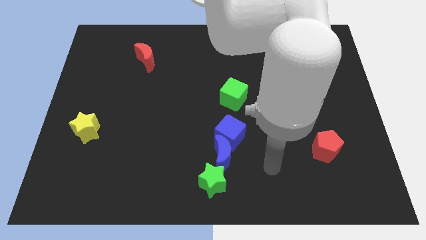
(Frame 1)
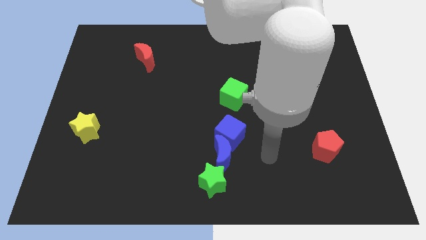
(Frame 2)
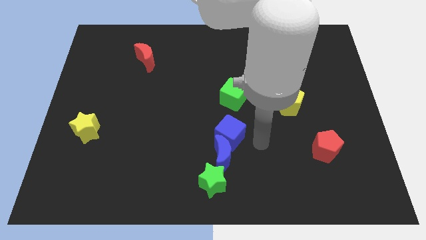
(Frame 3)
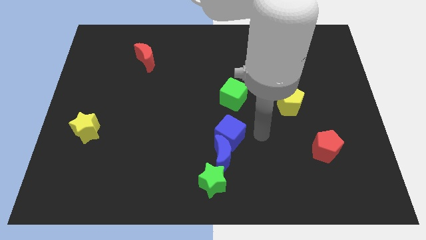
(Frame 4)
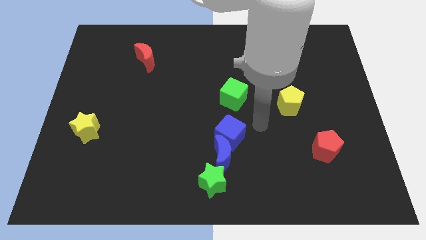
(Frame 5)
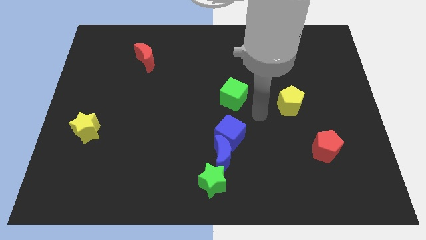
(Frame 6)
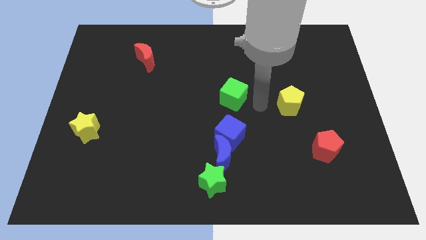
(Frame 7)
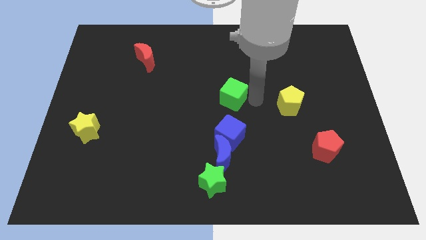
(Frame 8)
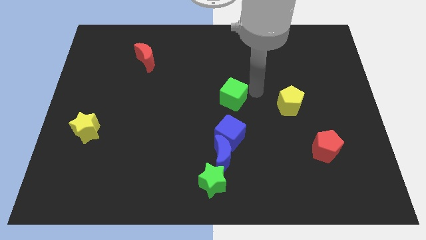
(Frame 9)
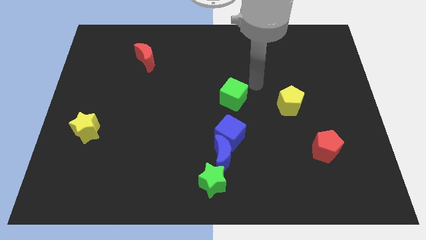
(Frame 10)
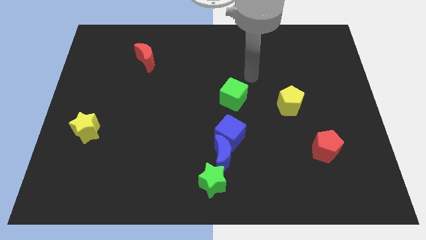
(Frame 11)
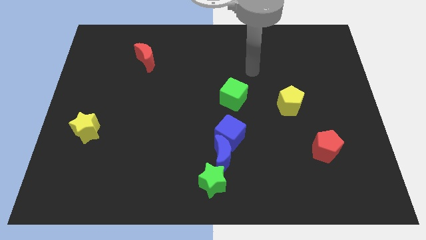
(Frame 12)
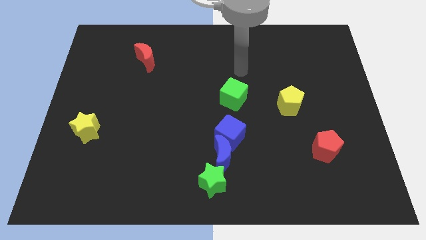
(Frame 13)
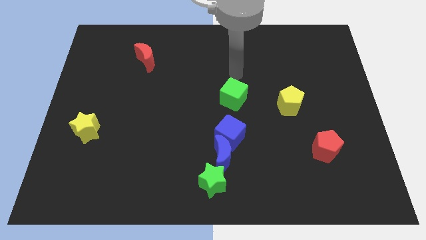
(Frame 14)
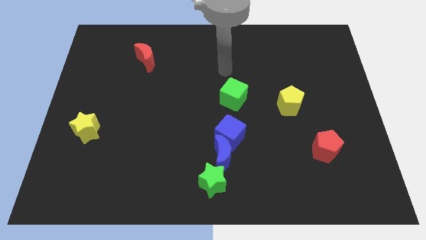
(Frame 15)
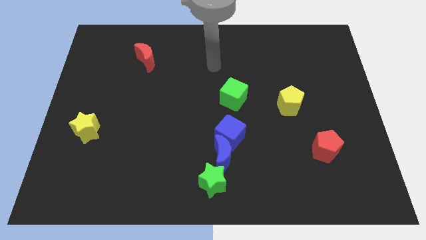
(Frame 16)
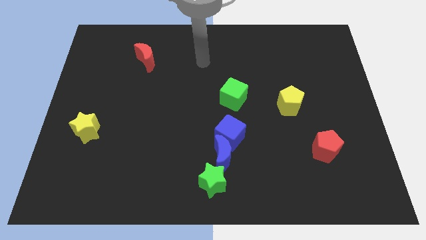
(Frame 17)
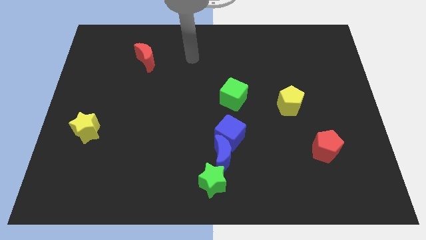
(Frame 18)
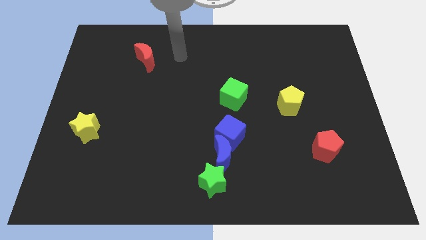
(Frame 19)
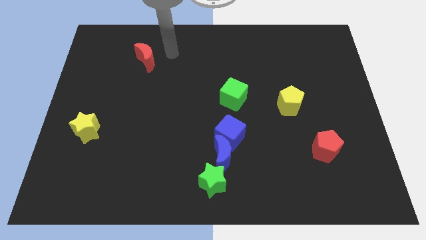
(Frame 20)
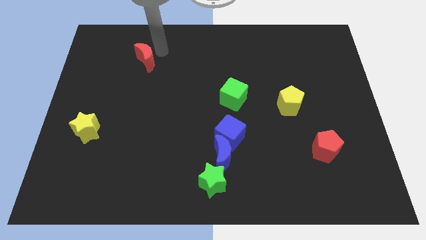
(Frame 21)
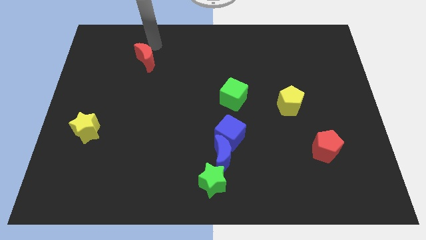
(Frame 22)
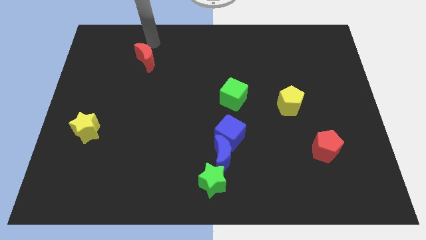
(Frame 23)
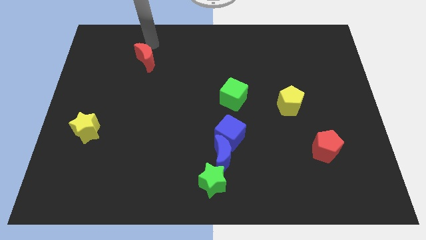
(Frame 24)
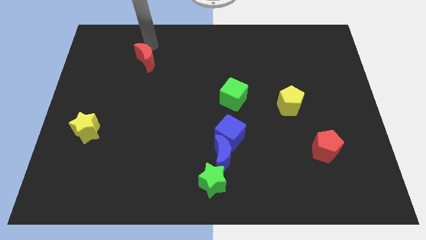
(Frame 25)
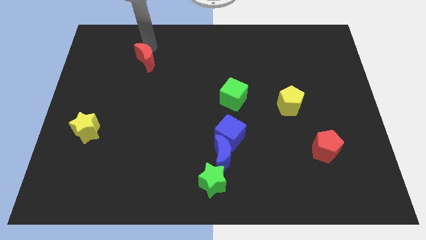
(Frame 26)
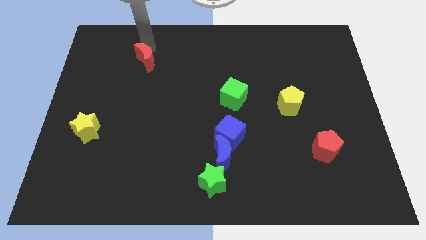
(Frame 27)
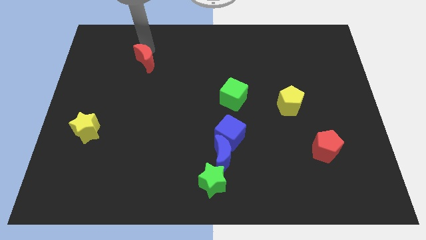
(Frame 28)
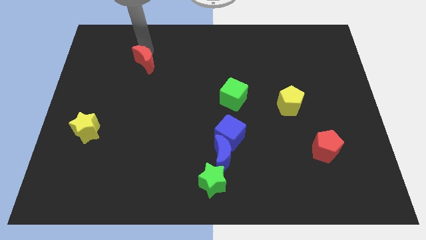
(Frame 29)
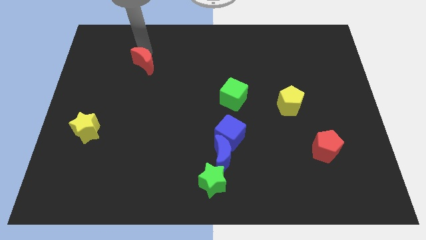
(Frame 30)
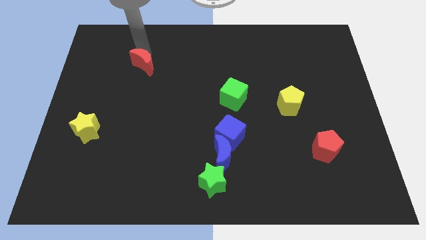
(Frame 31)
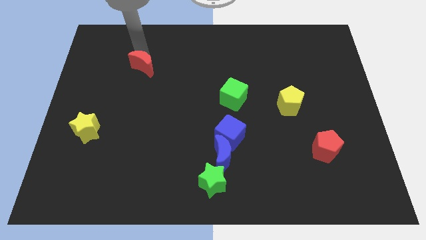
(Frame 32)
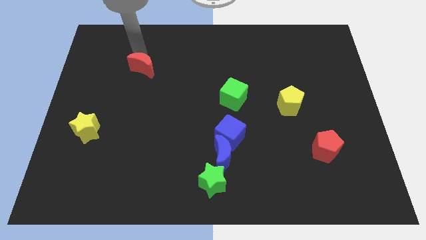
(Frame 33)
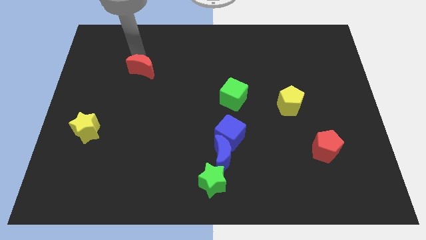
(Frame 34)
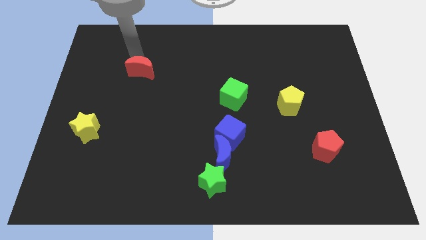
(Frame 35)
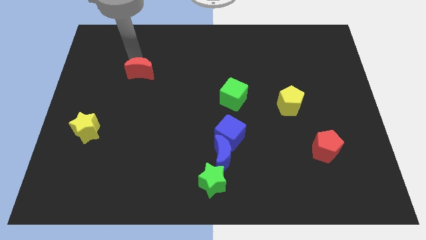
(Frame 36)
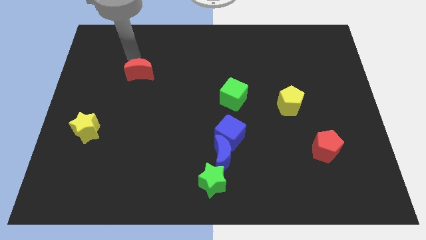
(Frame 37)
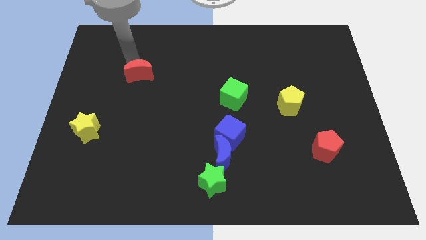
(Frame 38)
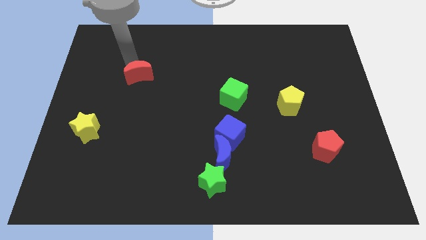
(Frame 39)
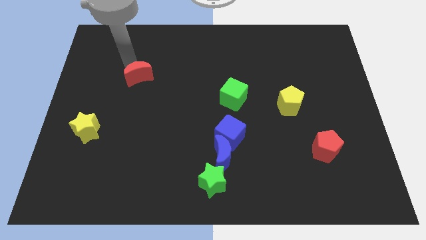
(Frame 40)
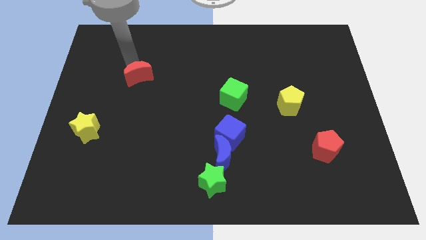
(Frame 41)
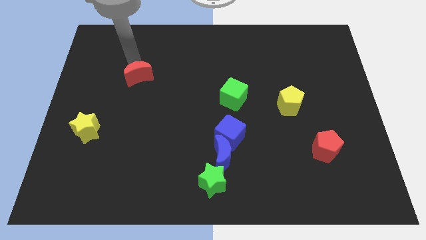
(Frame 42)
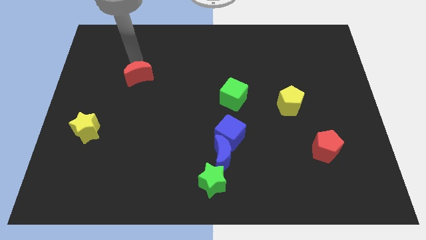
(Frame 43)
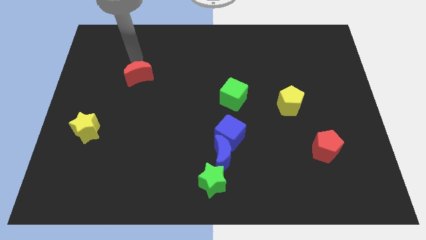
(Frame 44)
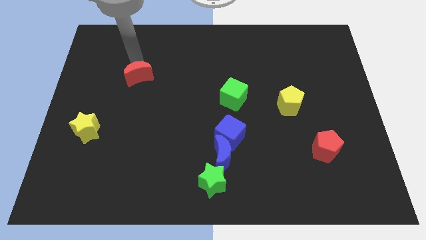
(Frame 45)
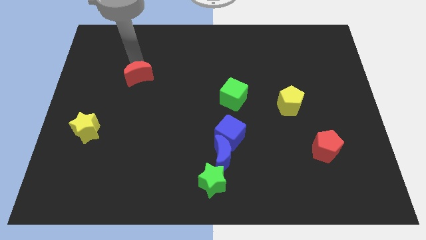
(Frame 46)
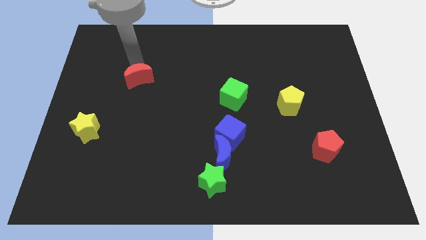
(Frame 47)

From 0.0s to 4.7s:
move the red moon downwards slightly

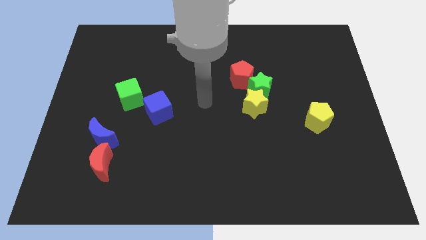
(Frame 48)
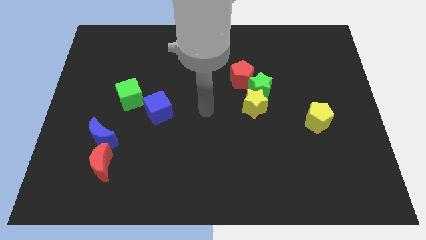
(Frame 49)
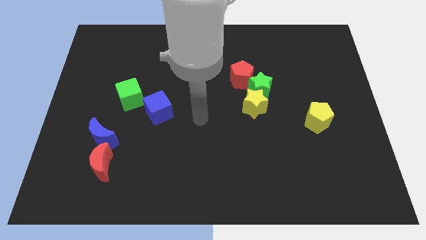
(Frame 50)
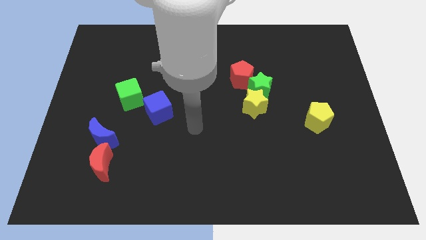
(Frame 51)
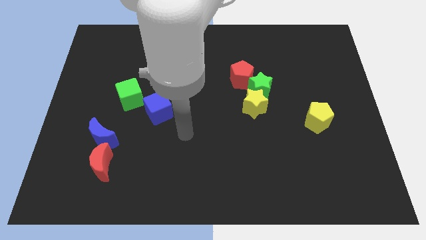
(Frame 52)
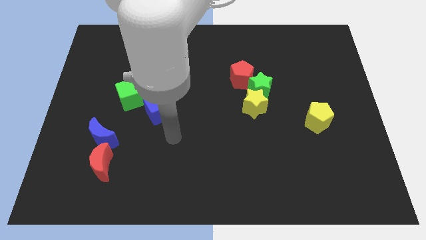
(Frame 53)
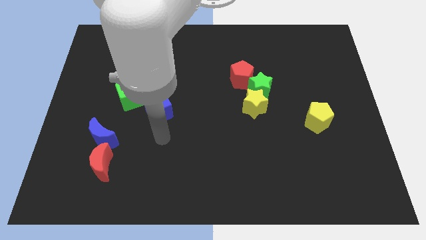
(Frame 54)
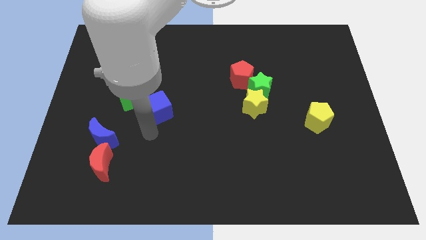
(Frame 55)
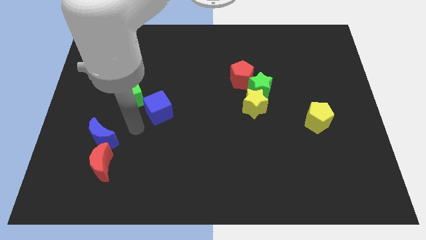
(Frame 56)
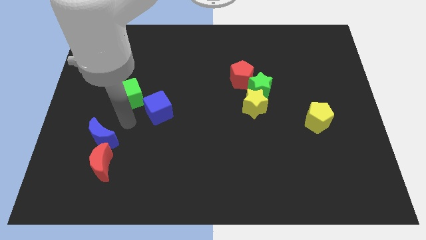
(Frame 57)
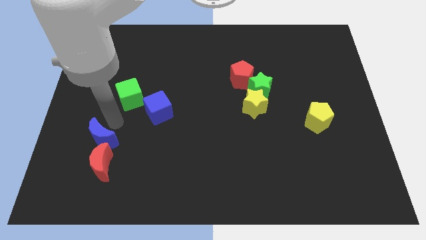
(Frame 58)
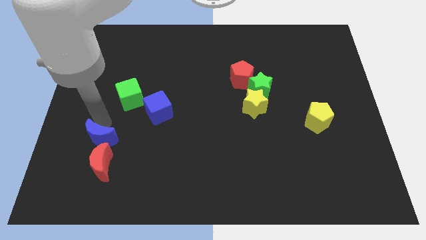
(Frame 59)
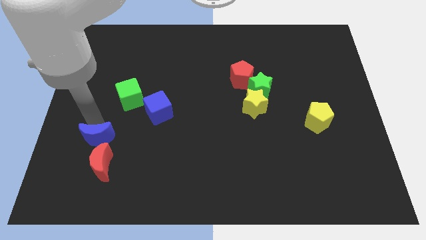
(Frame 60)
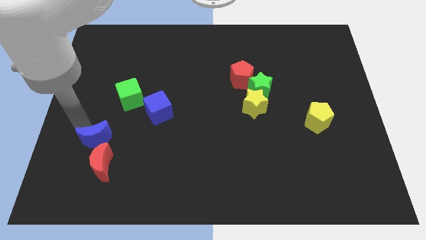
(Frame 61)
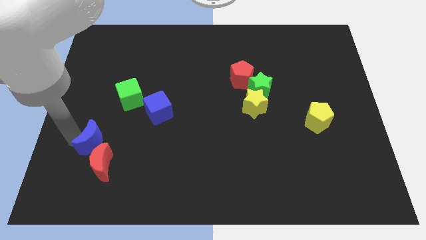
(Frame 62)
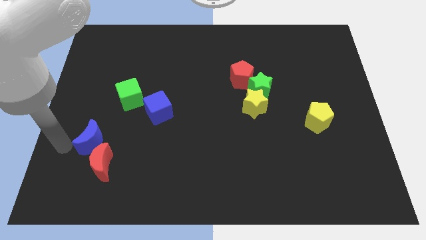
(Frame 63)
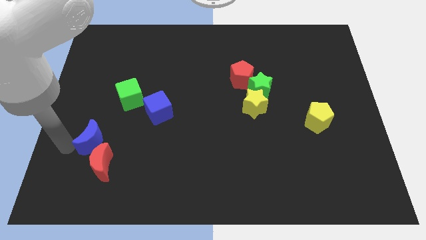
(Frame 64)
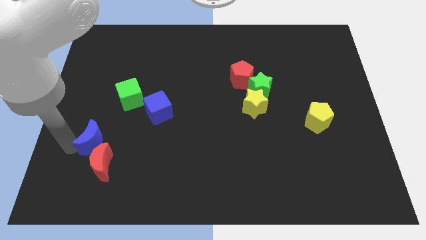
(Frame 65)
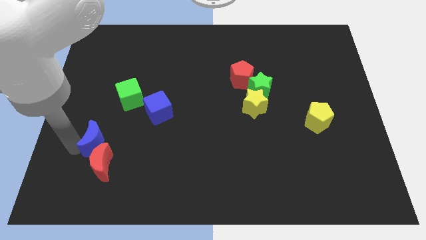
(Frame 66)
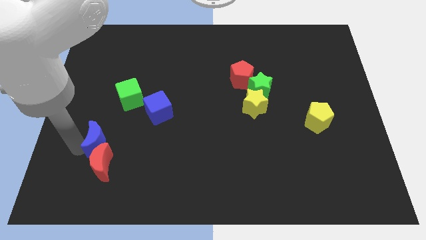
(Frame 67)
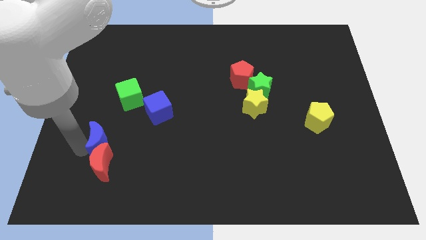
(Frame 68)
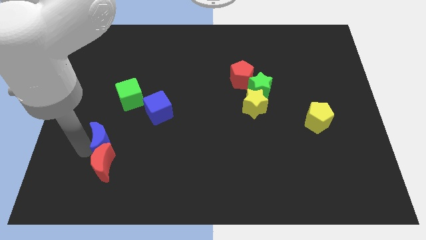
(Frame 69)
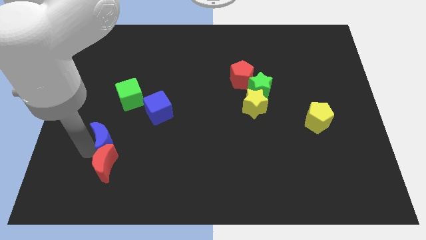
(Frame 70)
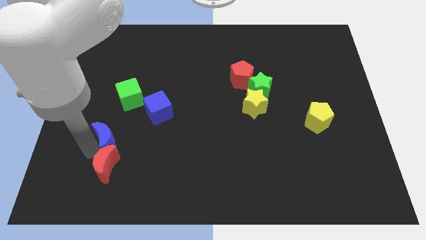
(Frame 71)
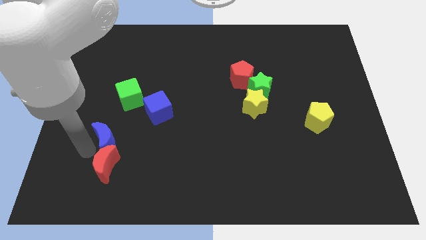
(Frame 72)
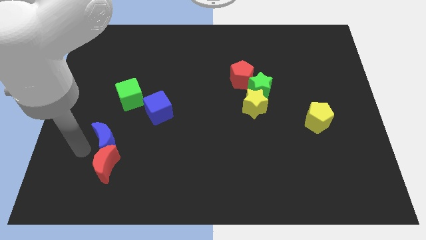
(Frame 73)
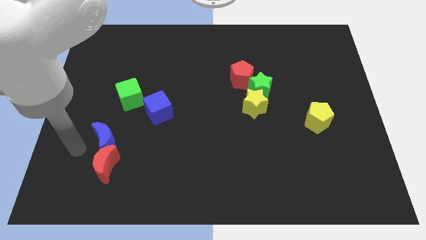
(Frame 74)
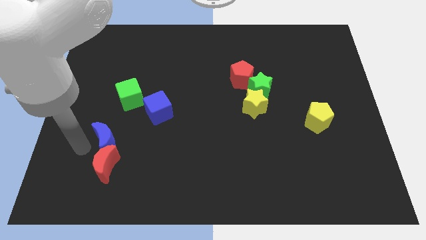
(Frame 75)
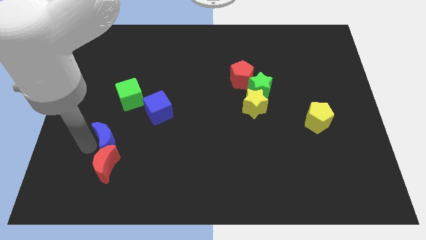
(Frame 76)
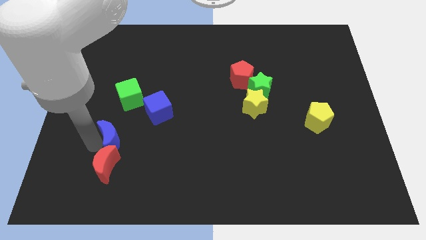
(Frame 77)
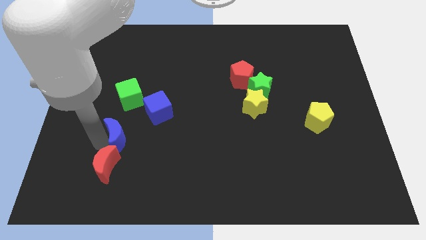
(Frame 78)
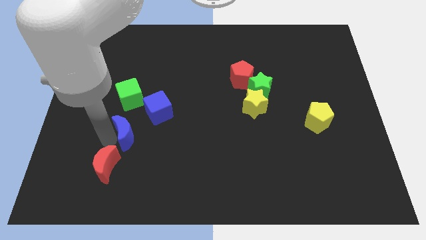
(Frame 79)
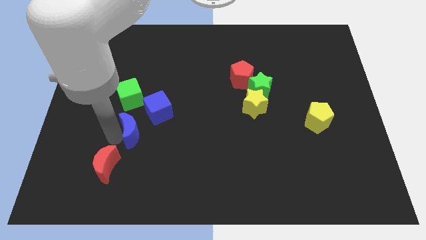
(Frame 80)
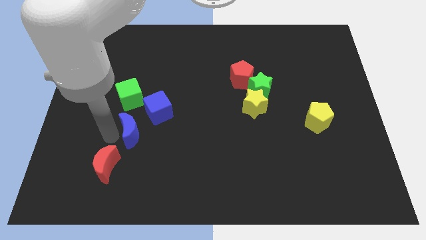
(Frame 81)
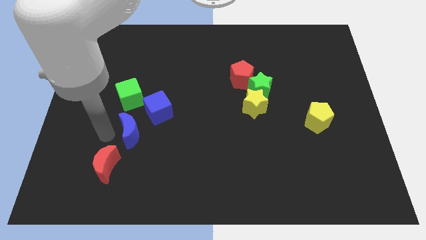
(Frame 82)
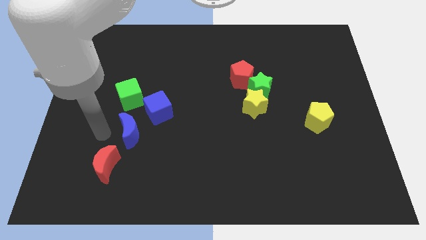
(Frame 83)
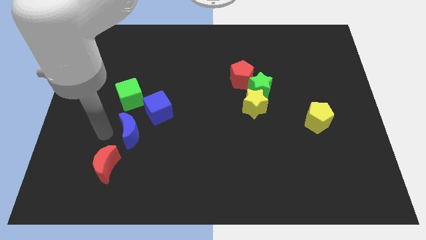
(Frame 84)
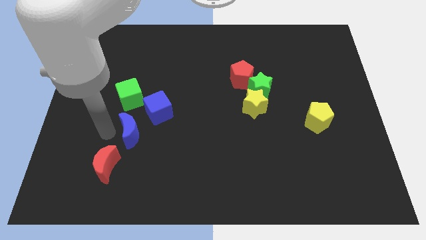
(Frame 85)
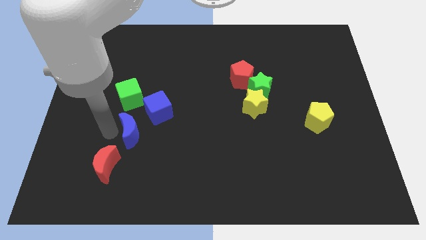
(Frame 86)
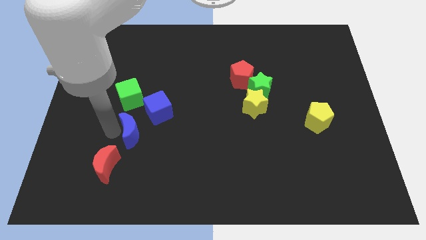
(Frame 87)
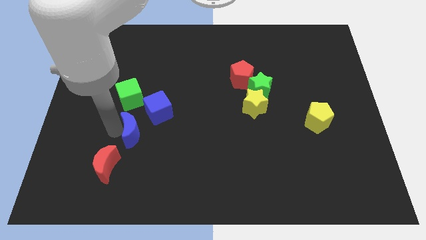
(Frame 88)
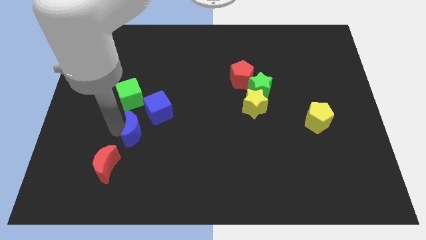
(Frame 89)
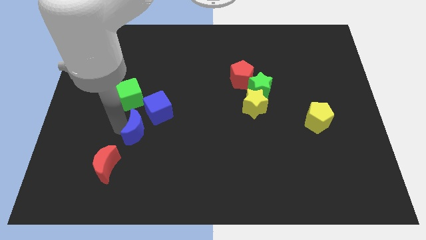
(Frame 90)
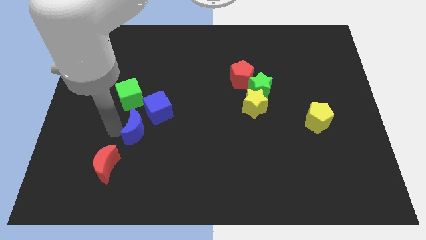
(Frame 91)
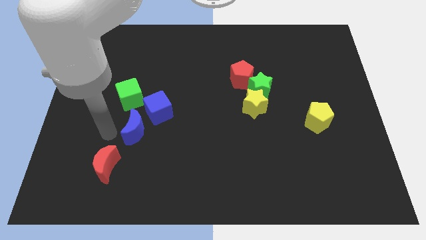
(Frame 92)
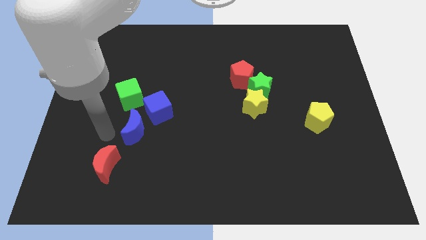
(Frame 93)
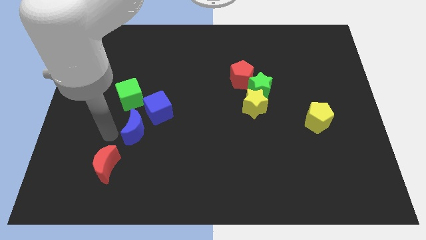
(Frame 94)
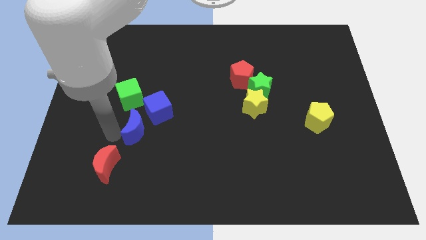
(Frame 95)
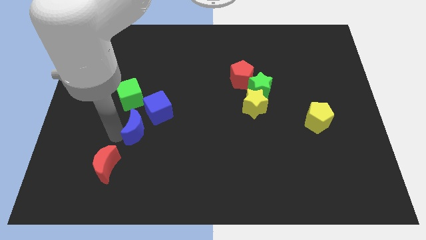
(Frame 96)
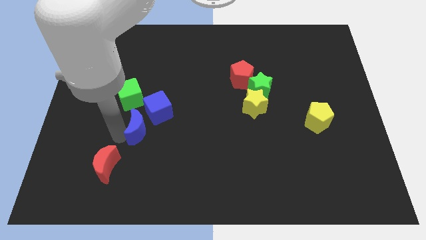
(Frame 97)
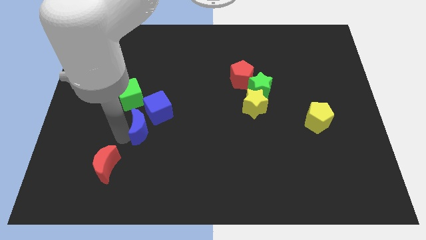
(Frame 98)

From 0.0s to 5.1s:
slightly push the blue moon up and right diagonally
